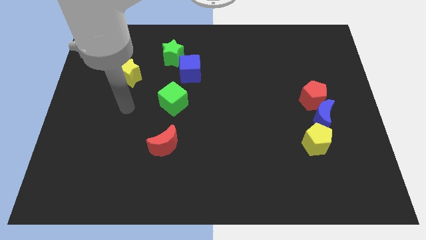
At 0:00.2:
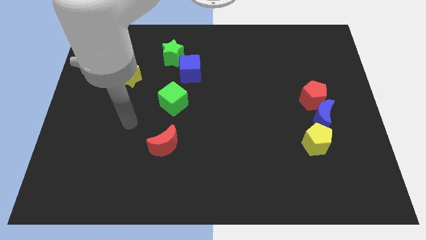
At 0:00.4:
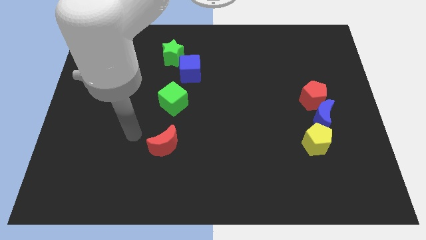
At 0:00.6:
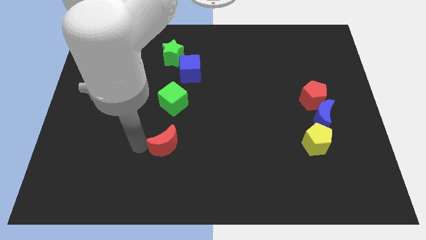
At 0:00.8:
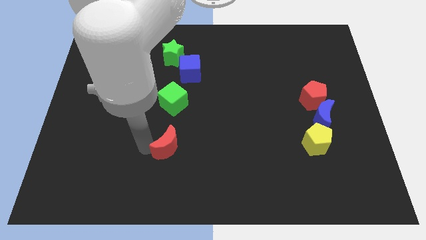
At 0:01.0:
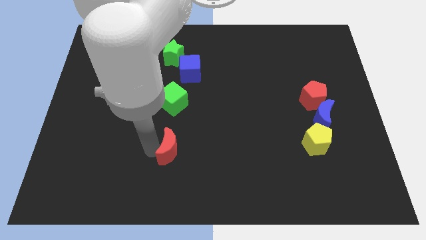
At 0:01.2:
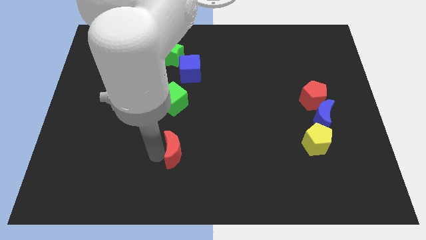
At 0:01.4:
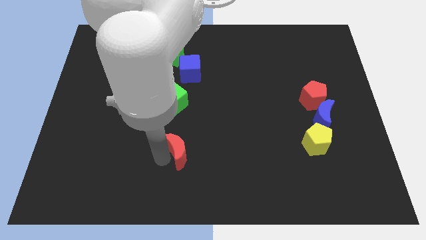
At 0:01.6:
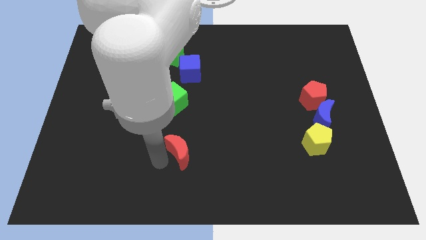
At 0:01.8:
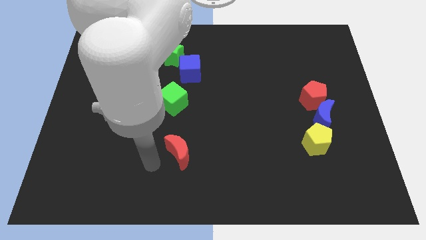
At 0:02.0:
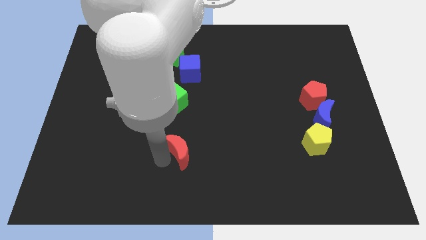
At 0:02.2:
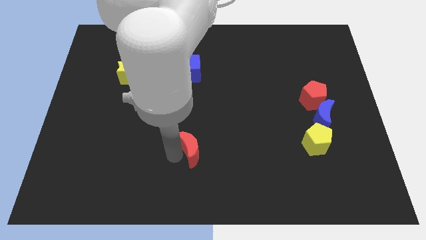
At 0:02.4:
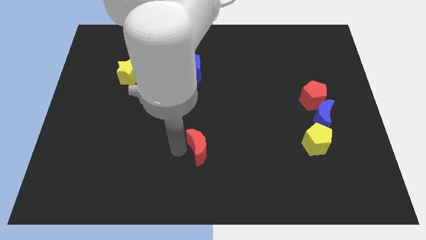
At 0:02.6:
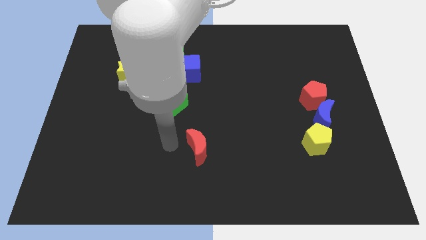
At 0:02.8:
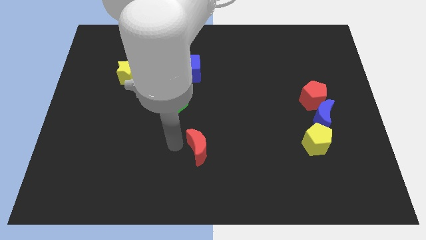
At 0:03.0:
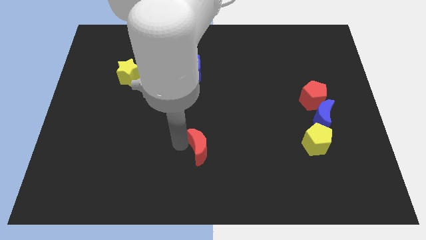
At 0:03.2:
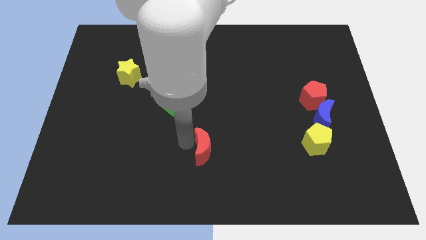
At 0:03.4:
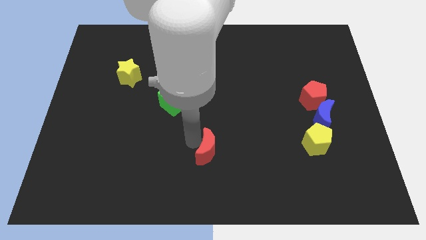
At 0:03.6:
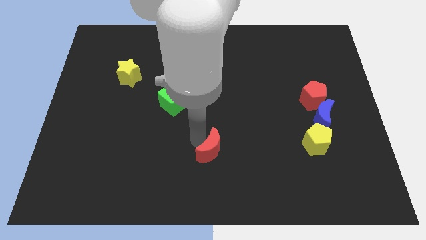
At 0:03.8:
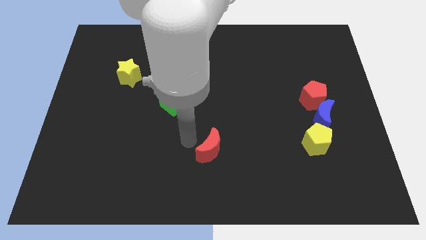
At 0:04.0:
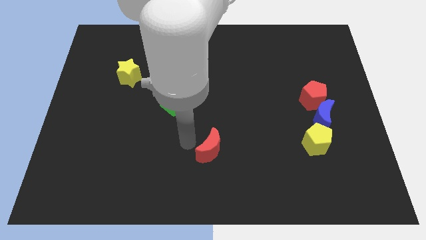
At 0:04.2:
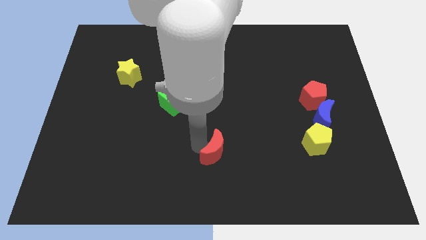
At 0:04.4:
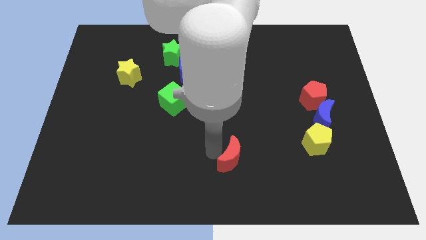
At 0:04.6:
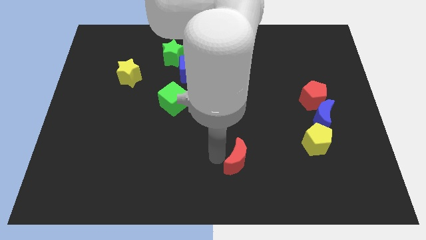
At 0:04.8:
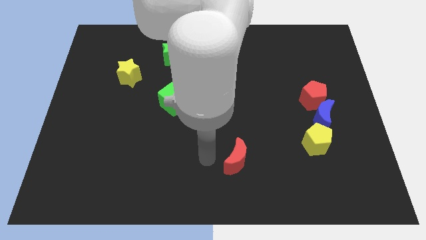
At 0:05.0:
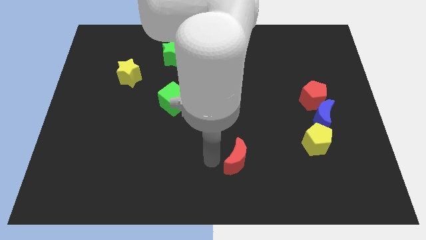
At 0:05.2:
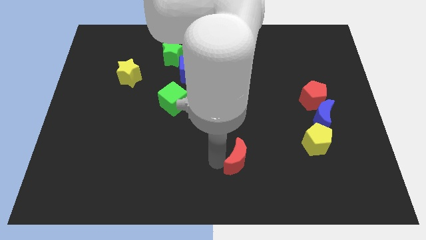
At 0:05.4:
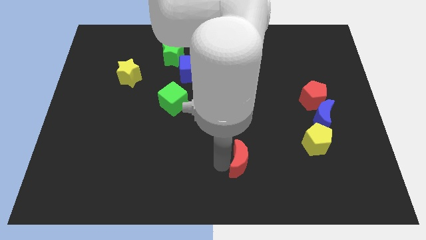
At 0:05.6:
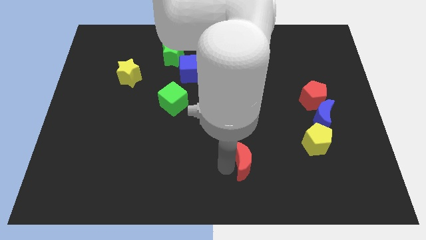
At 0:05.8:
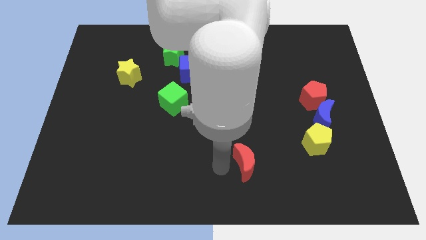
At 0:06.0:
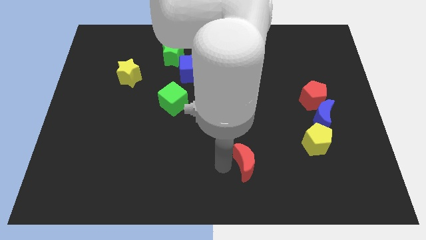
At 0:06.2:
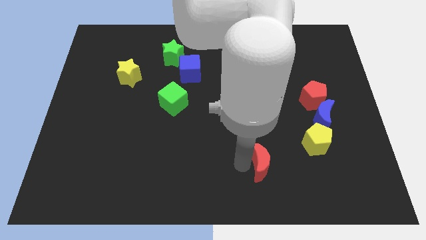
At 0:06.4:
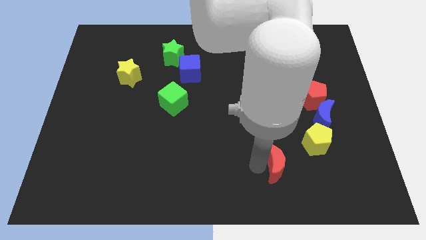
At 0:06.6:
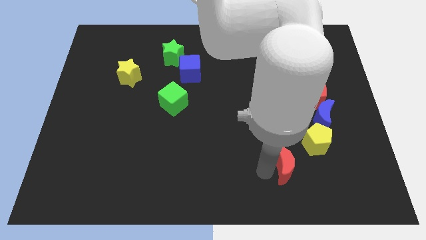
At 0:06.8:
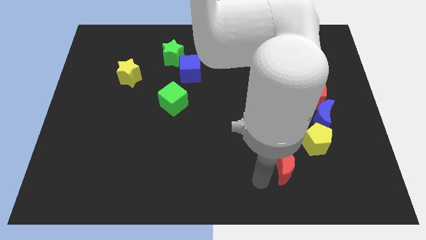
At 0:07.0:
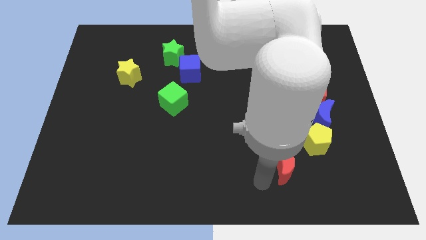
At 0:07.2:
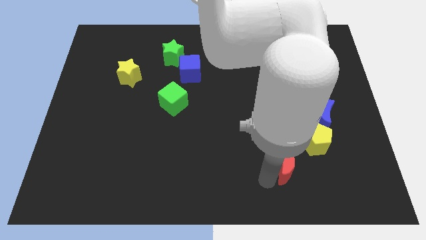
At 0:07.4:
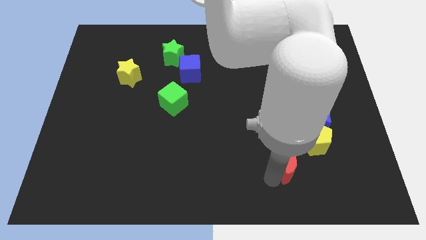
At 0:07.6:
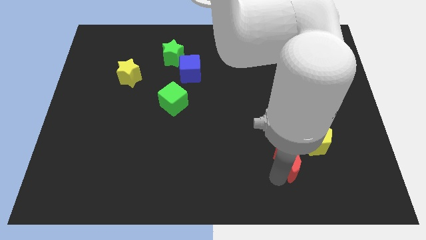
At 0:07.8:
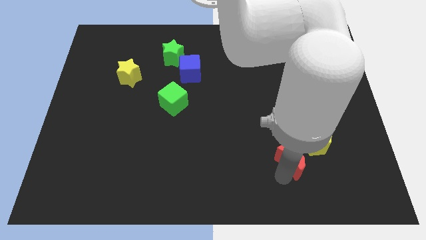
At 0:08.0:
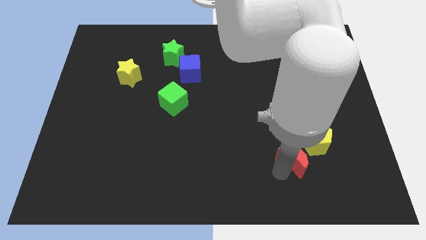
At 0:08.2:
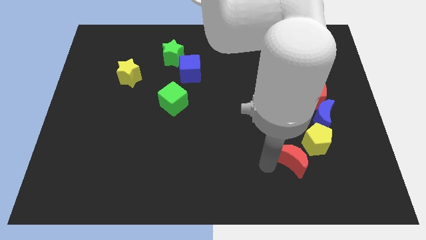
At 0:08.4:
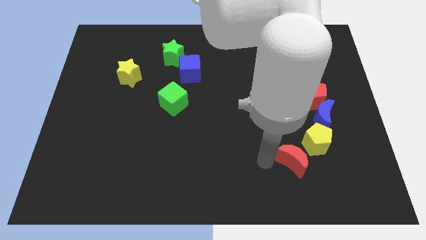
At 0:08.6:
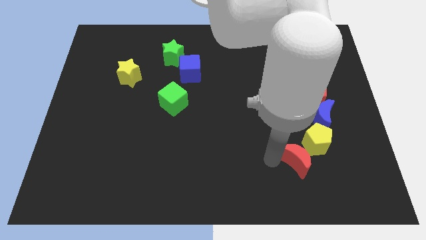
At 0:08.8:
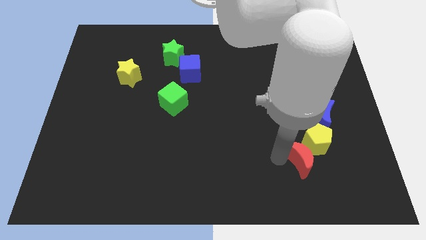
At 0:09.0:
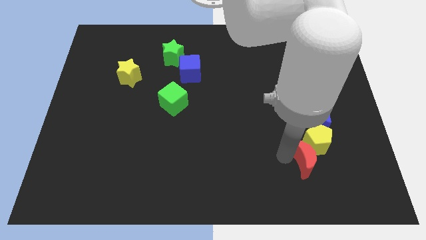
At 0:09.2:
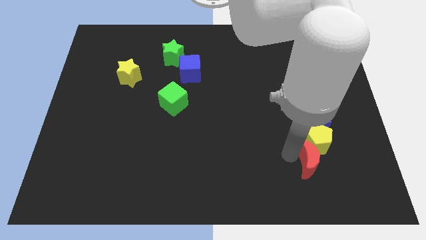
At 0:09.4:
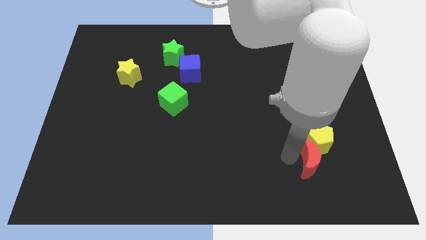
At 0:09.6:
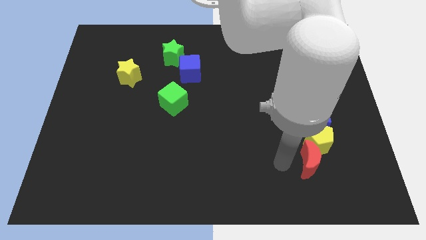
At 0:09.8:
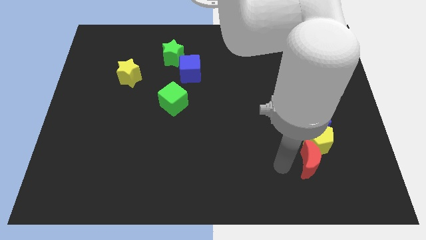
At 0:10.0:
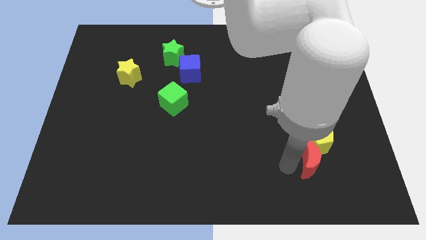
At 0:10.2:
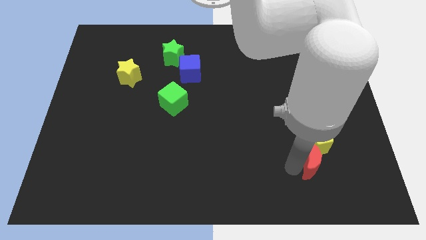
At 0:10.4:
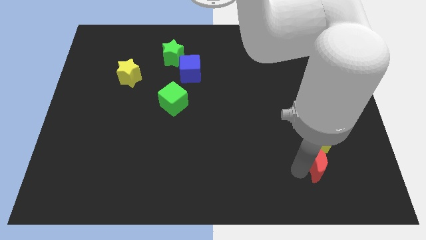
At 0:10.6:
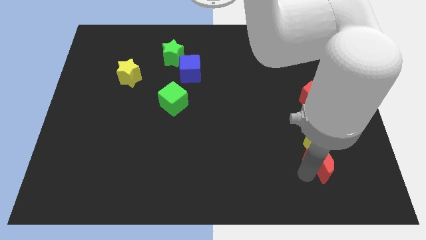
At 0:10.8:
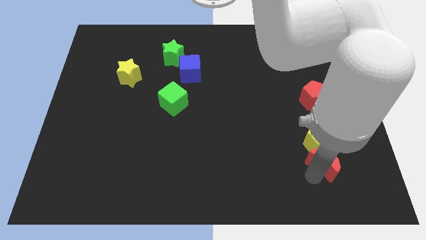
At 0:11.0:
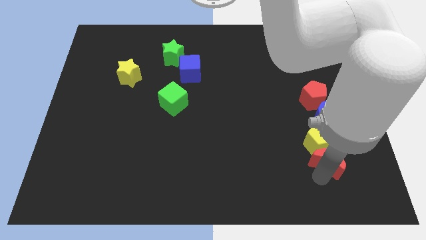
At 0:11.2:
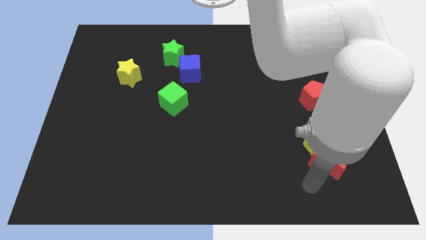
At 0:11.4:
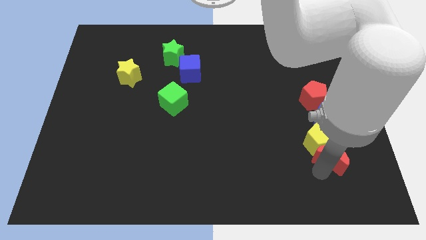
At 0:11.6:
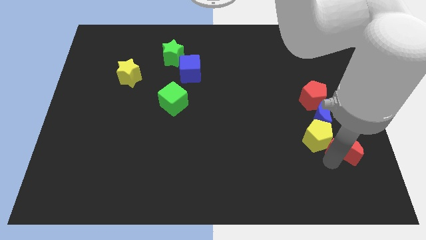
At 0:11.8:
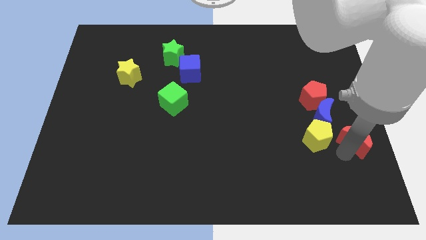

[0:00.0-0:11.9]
put the red moon to the center right
